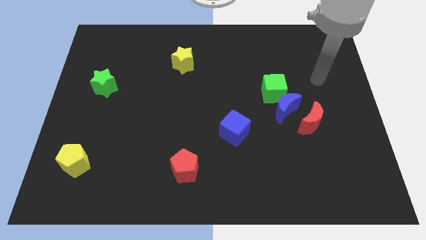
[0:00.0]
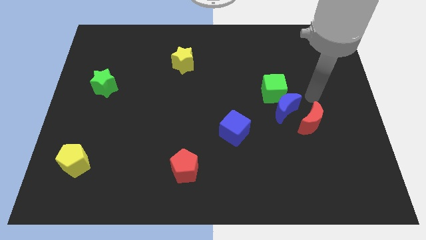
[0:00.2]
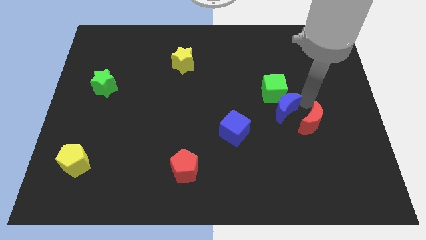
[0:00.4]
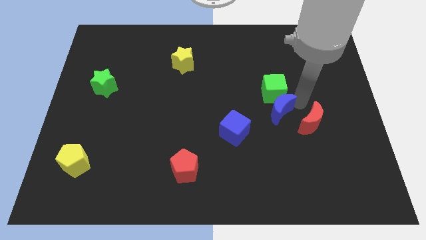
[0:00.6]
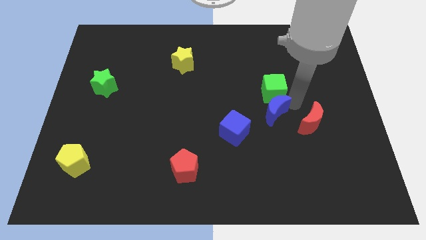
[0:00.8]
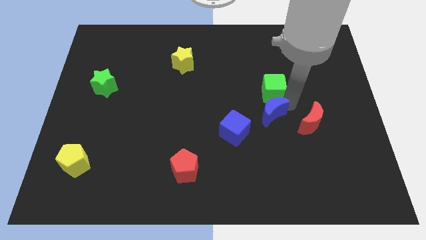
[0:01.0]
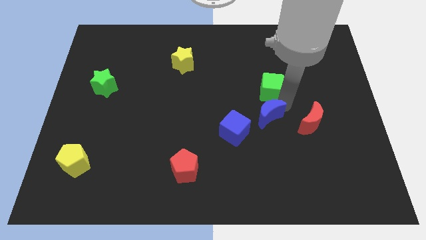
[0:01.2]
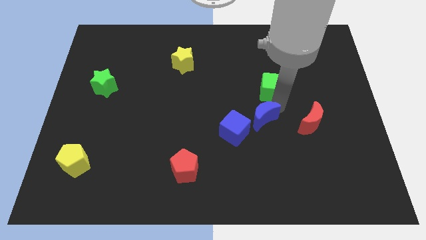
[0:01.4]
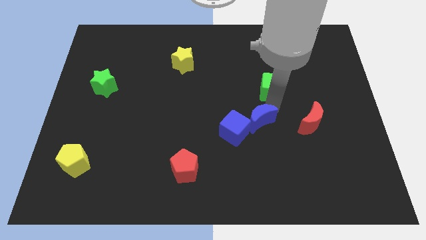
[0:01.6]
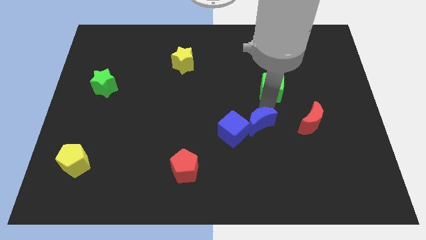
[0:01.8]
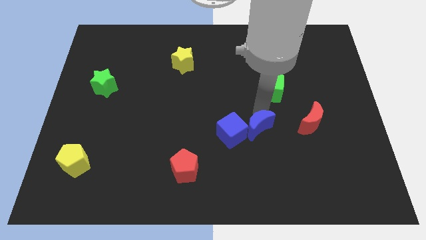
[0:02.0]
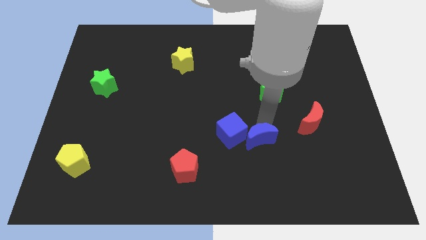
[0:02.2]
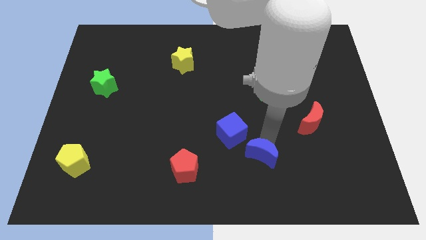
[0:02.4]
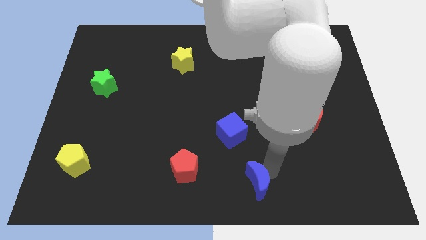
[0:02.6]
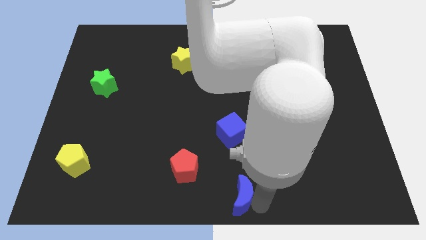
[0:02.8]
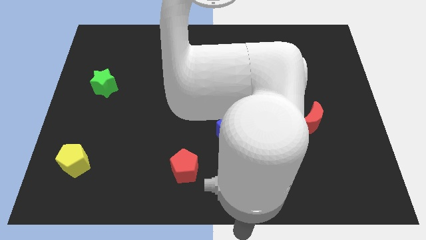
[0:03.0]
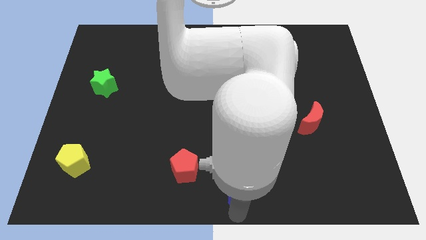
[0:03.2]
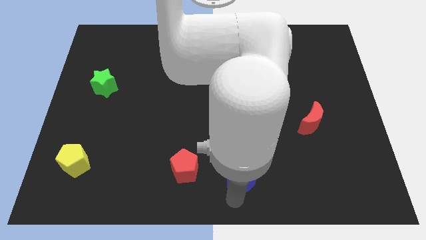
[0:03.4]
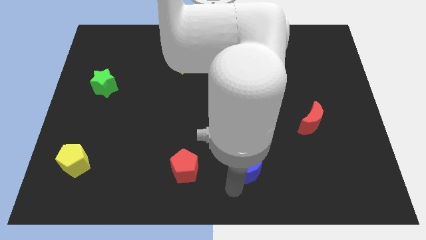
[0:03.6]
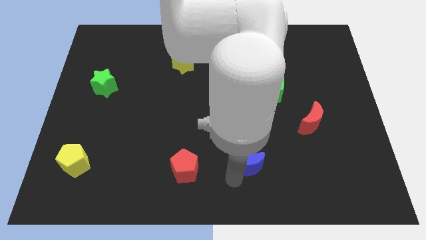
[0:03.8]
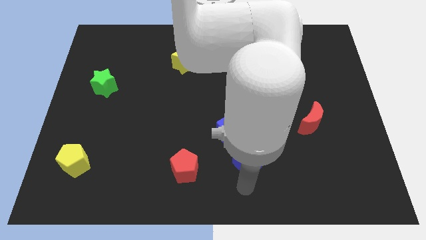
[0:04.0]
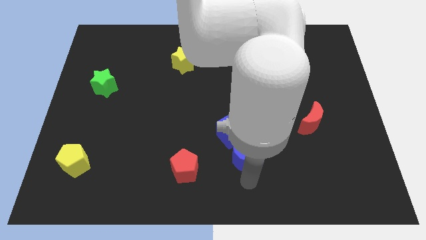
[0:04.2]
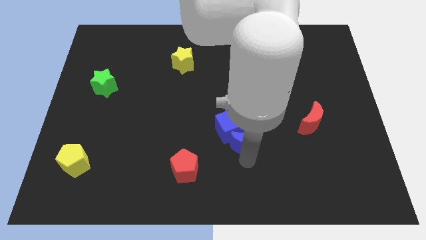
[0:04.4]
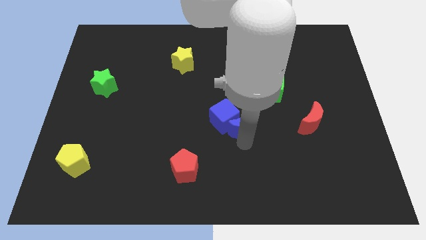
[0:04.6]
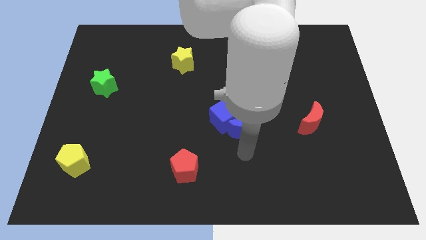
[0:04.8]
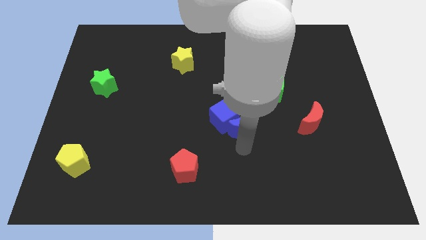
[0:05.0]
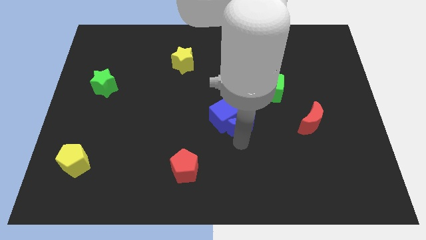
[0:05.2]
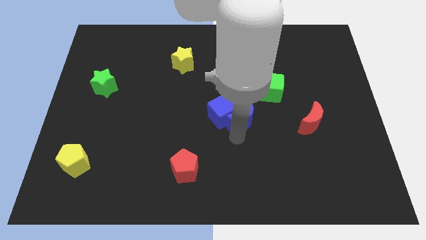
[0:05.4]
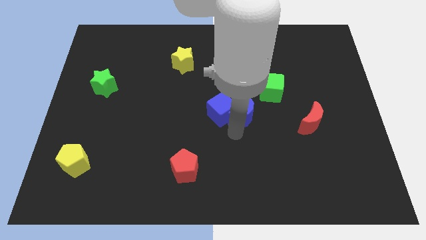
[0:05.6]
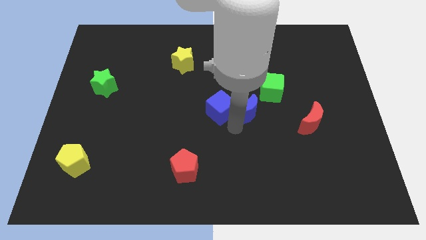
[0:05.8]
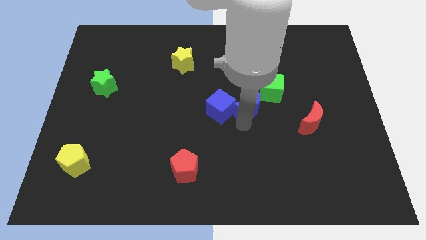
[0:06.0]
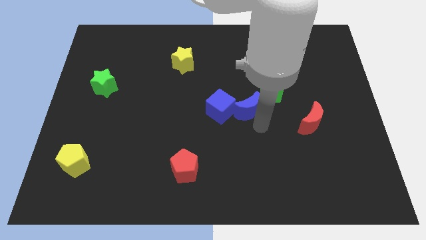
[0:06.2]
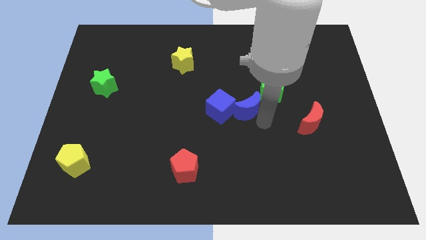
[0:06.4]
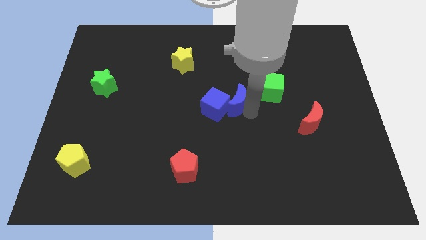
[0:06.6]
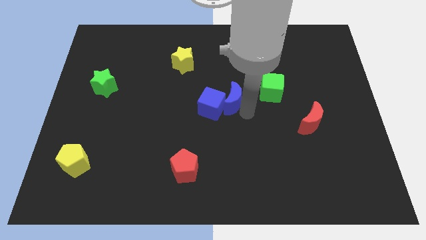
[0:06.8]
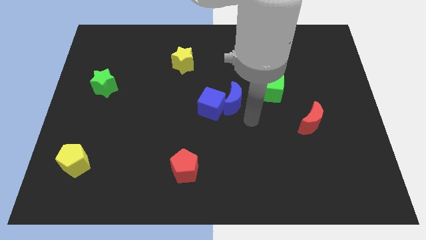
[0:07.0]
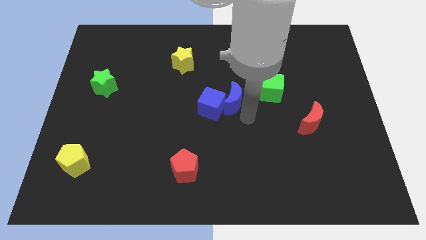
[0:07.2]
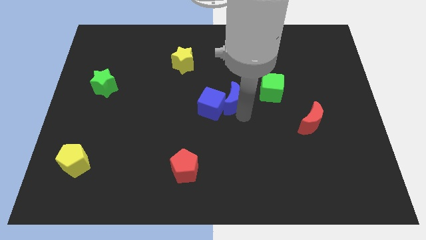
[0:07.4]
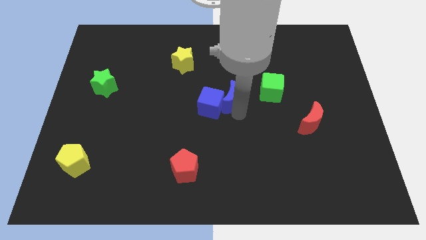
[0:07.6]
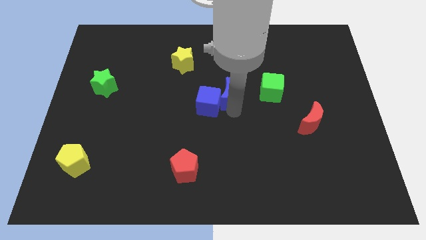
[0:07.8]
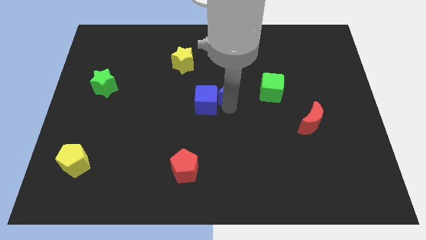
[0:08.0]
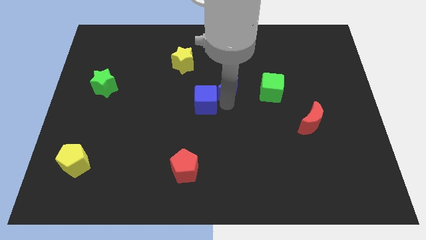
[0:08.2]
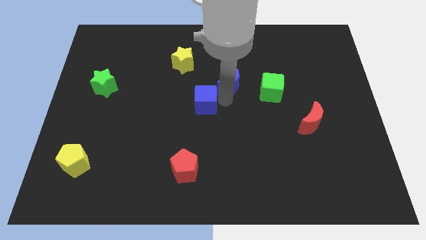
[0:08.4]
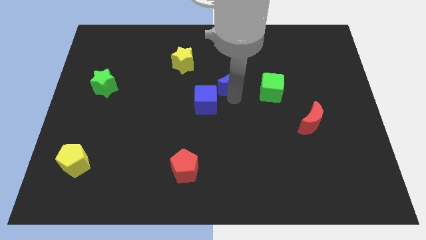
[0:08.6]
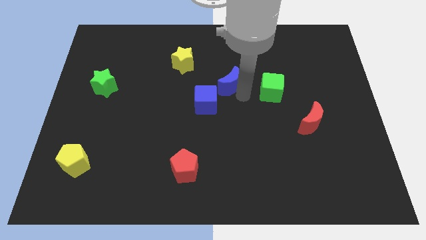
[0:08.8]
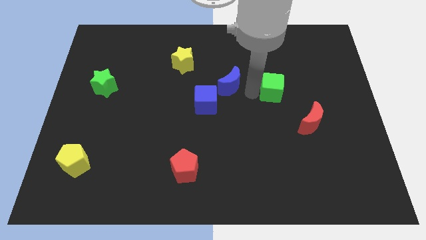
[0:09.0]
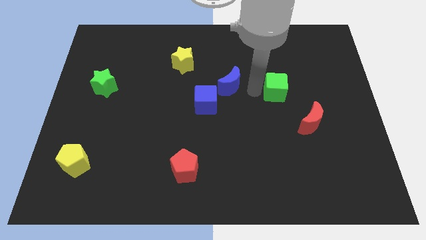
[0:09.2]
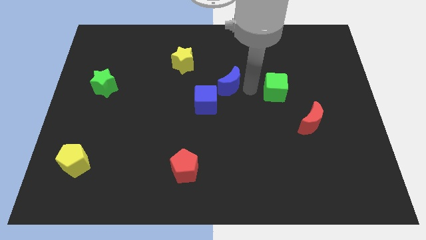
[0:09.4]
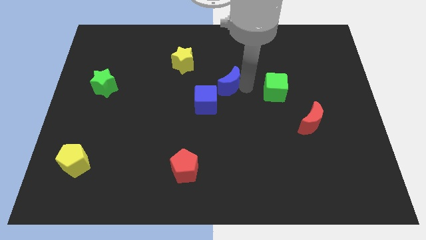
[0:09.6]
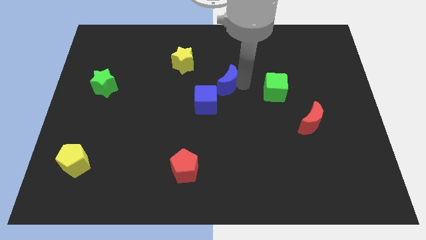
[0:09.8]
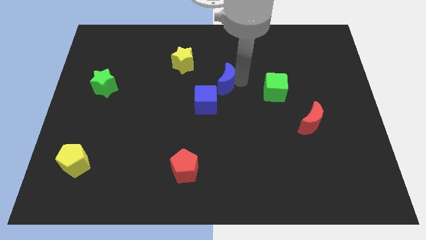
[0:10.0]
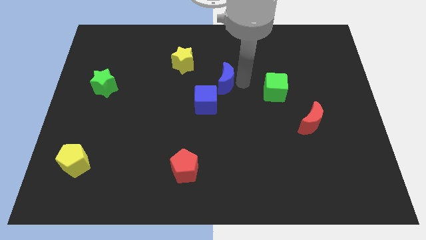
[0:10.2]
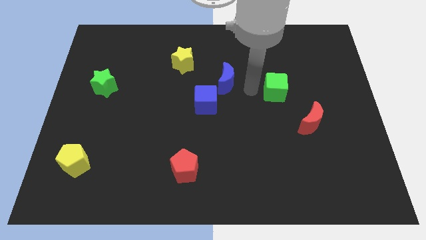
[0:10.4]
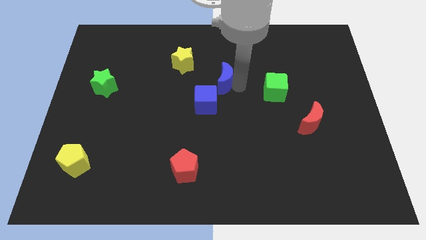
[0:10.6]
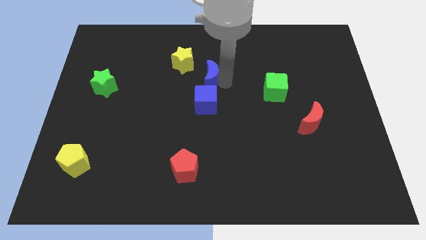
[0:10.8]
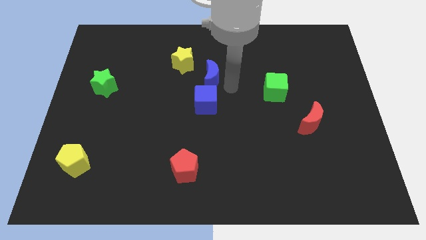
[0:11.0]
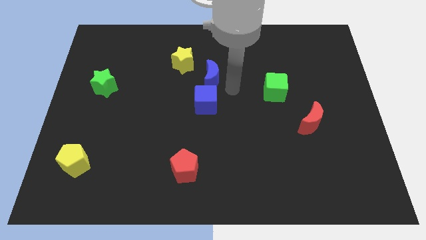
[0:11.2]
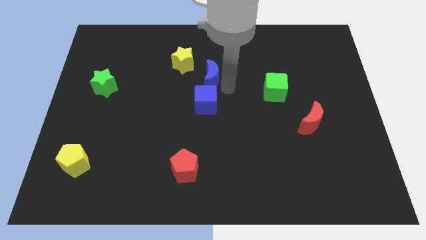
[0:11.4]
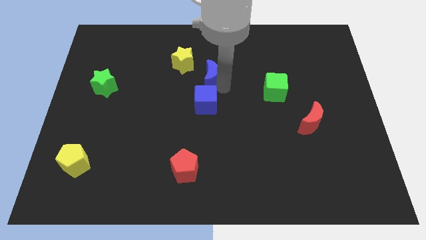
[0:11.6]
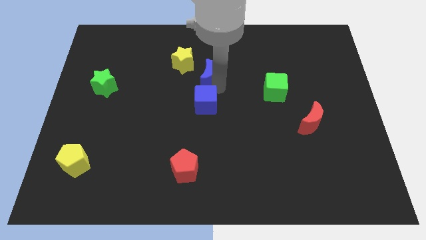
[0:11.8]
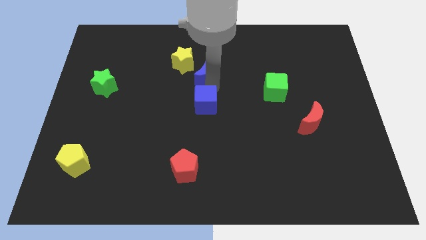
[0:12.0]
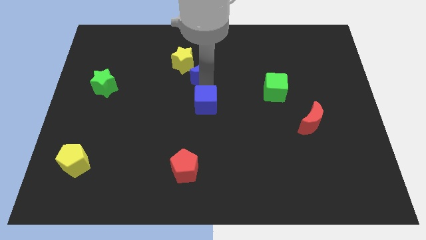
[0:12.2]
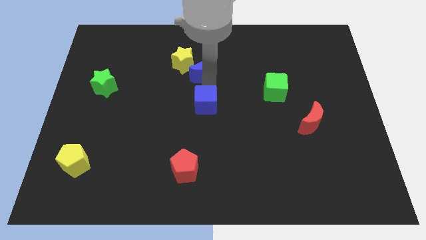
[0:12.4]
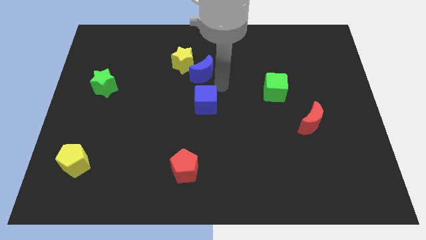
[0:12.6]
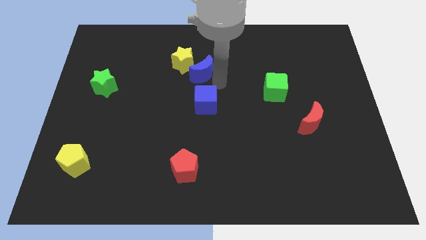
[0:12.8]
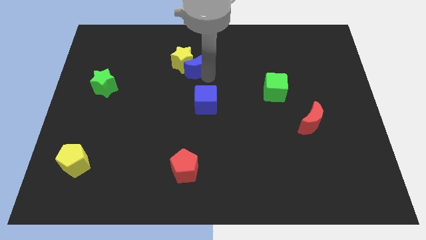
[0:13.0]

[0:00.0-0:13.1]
put the blue moon close to the yellow star
